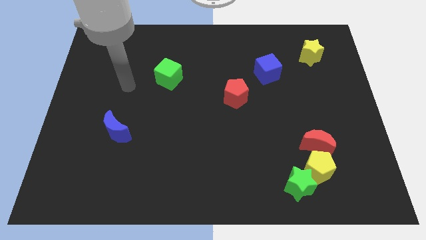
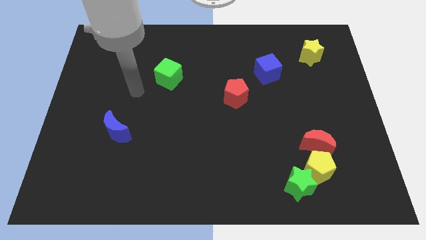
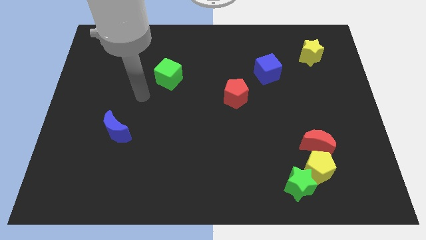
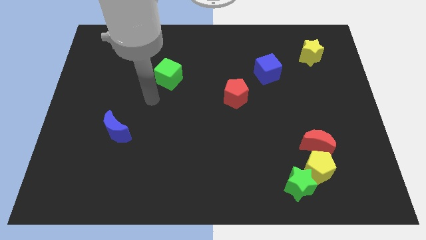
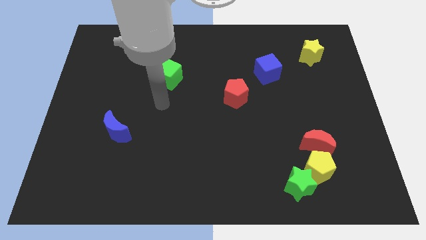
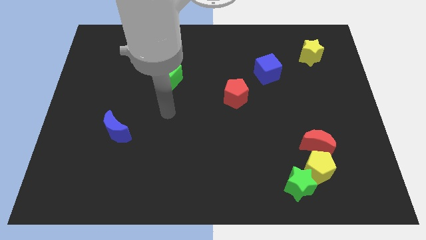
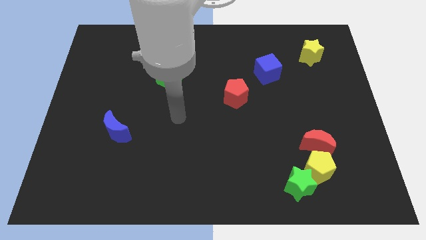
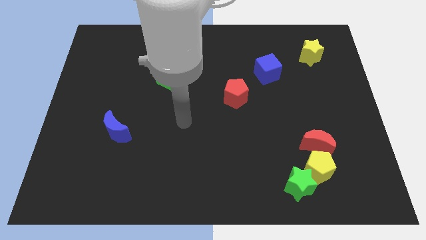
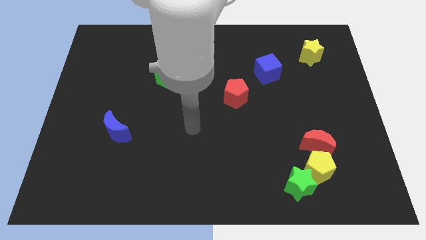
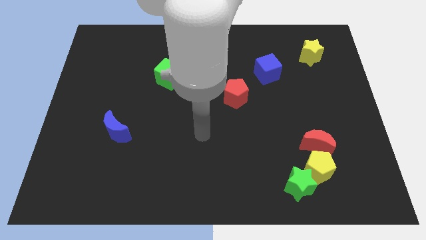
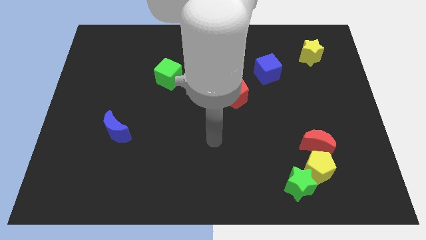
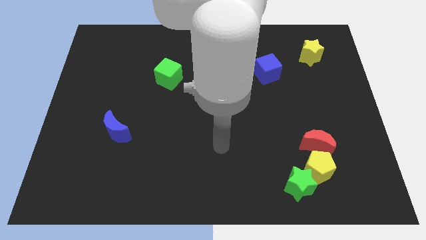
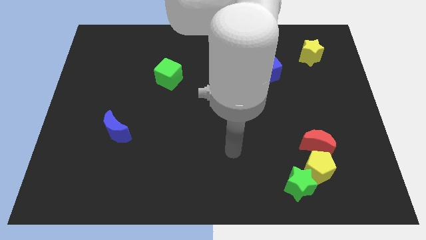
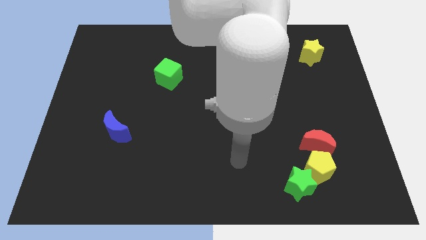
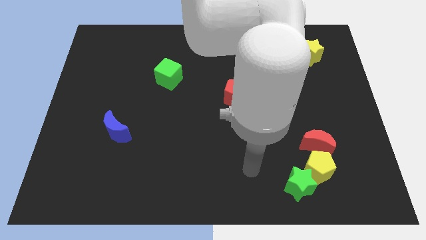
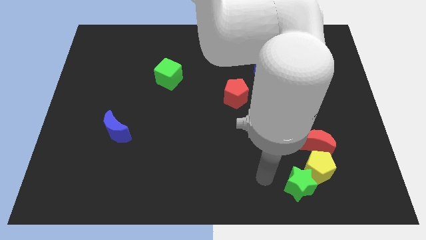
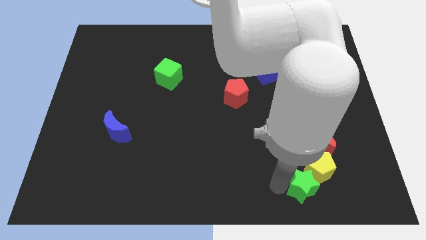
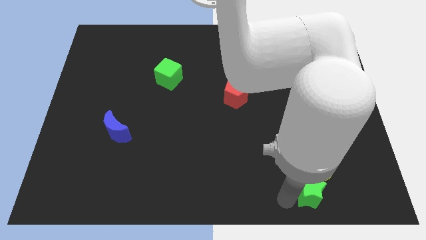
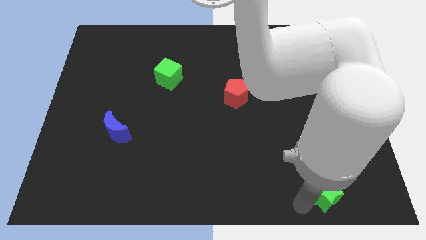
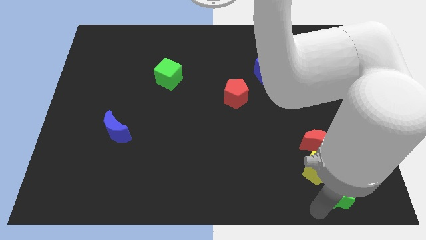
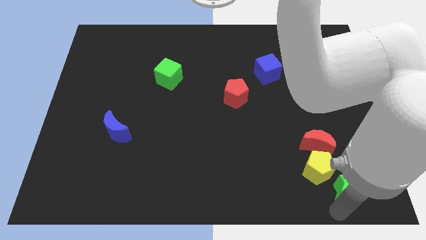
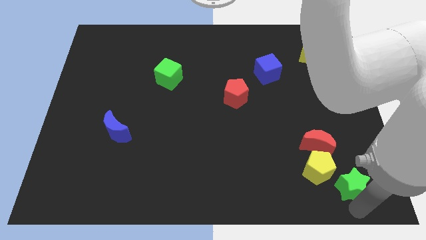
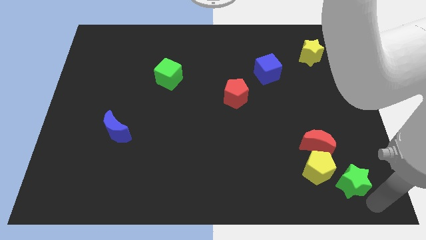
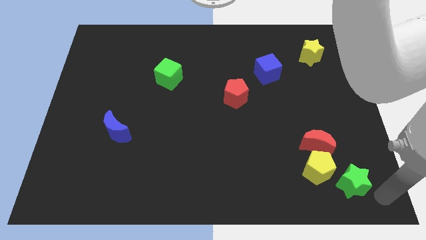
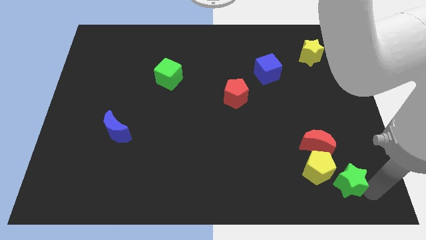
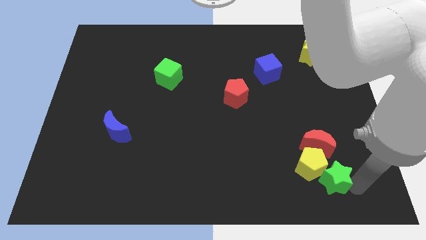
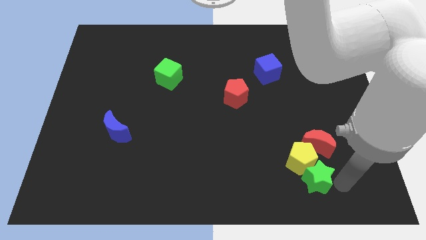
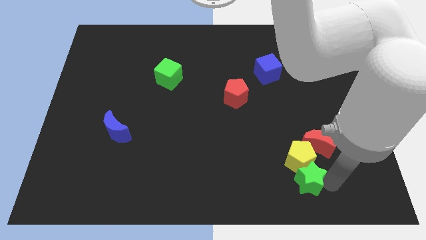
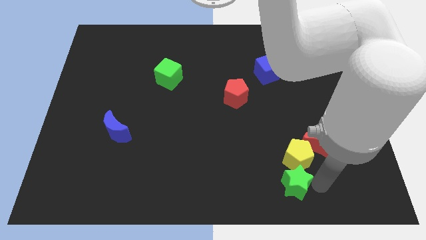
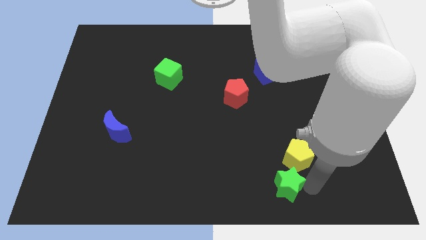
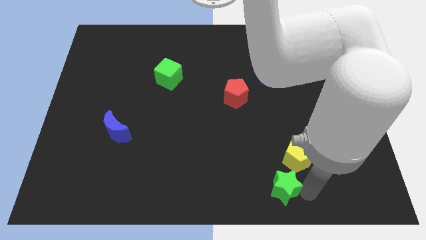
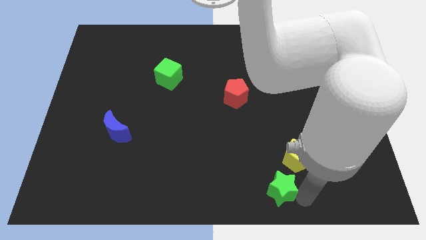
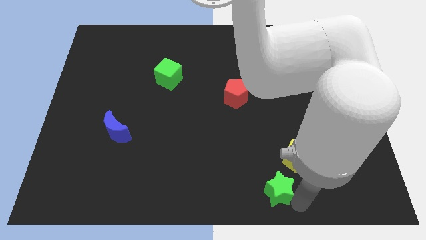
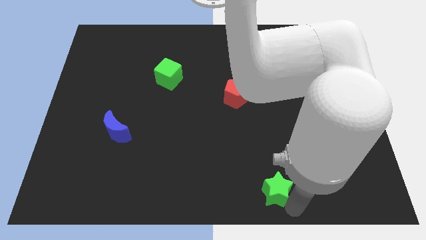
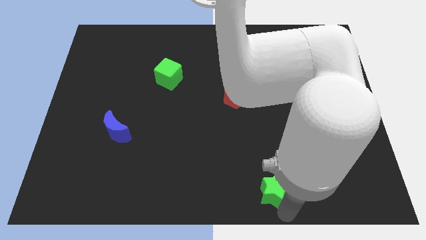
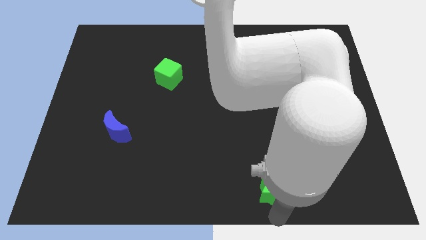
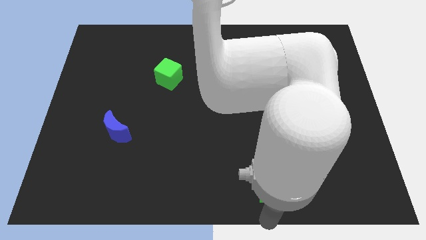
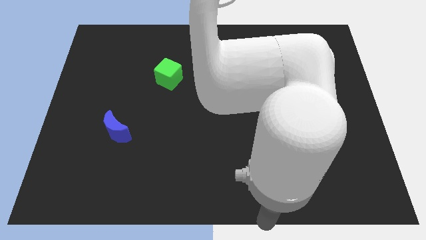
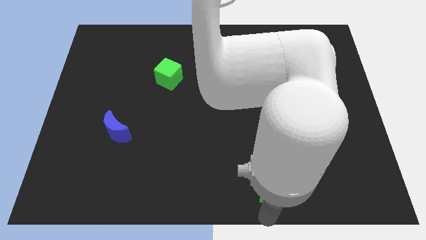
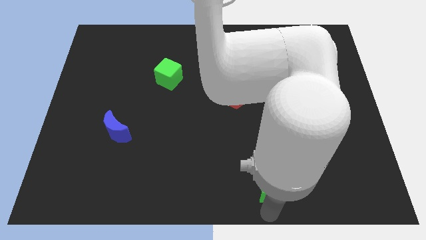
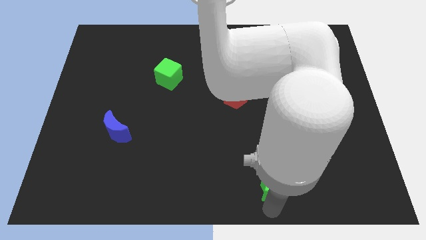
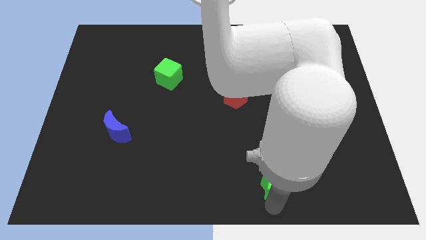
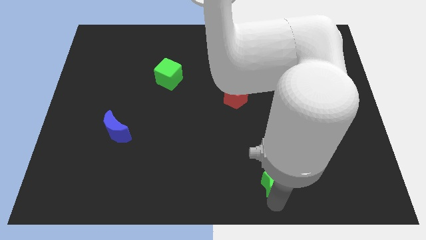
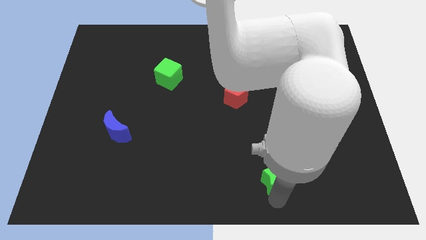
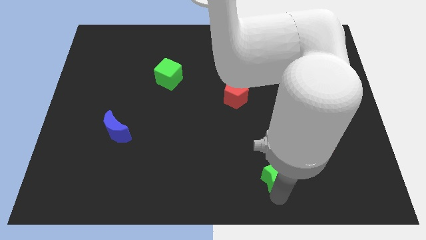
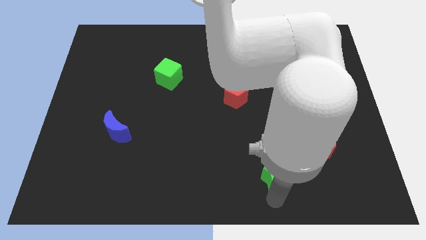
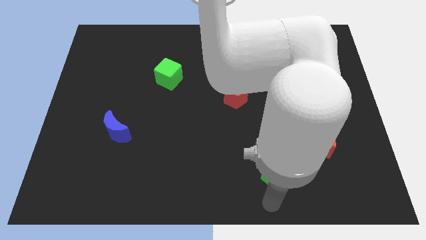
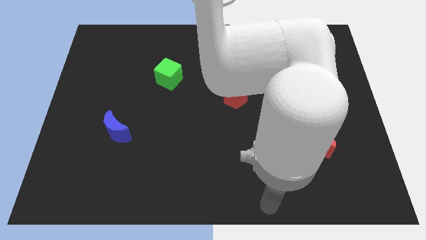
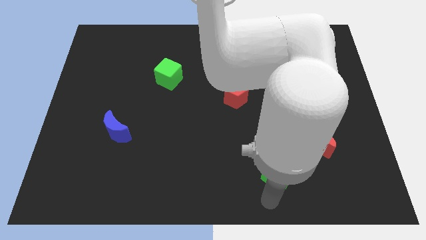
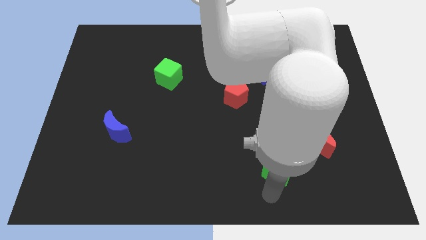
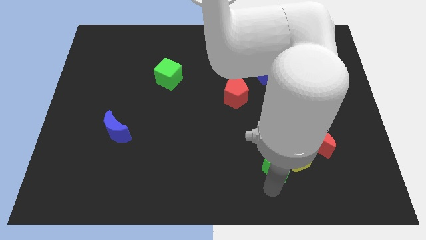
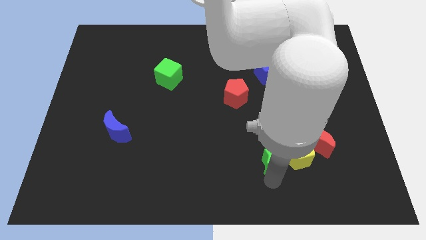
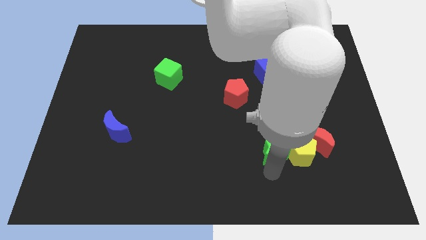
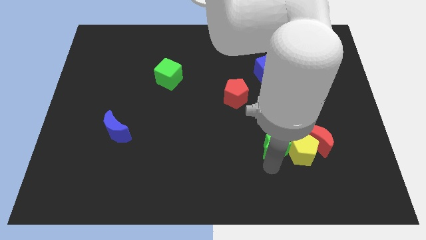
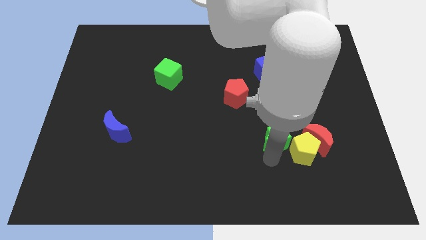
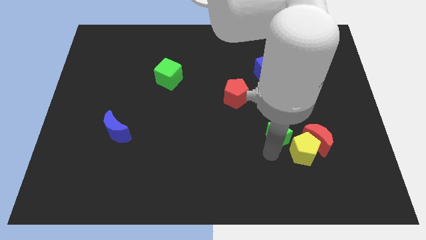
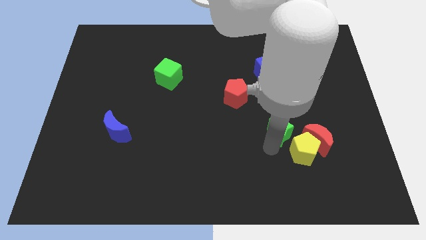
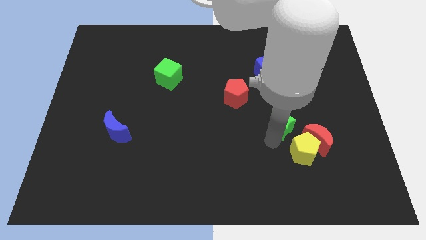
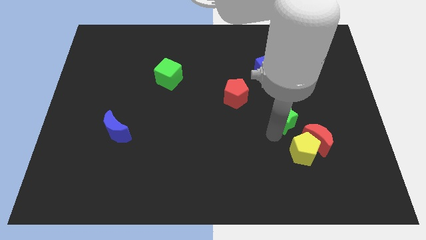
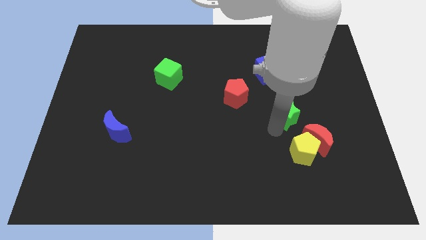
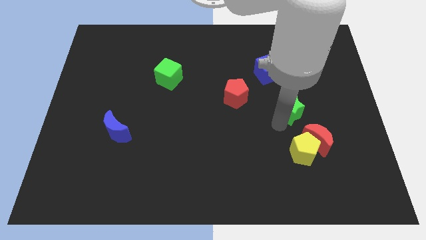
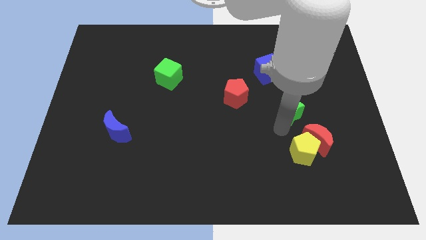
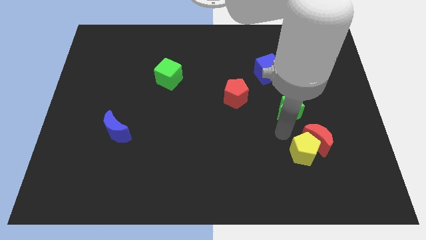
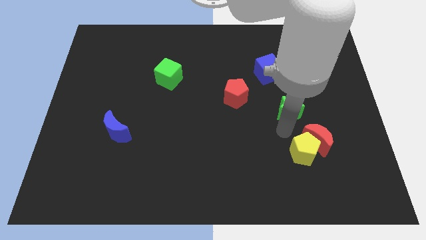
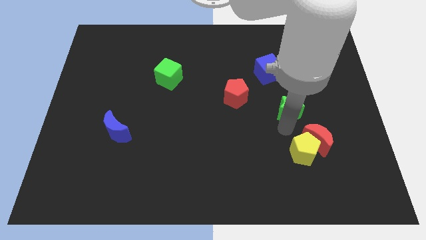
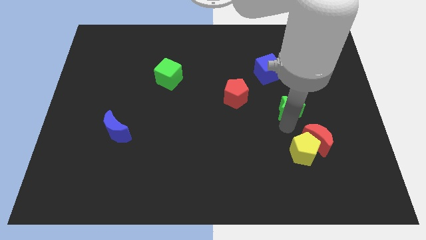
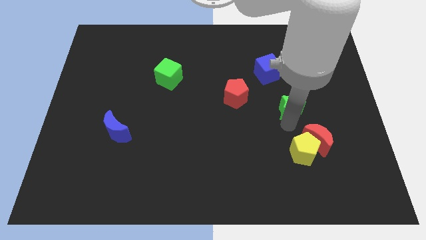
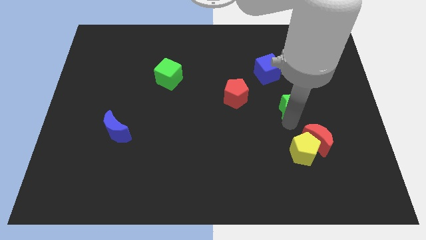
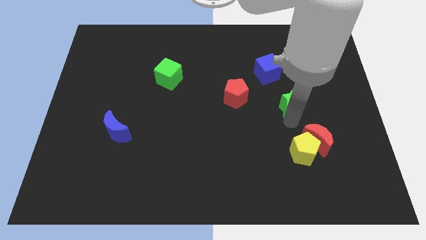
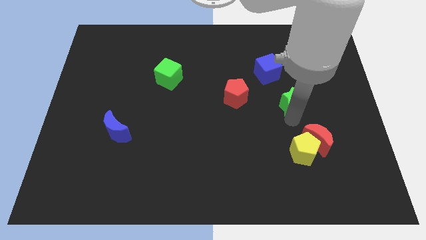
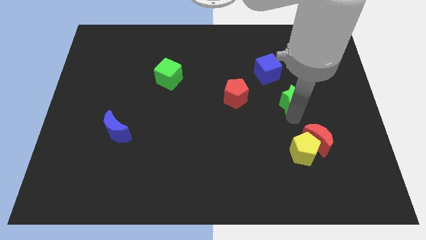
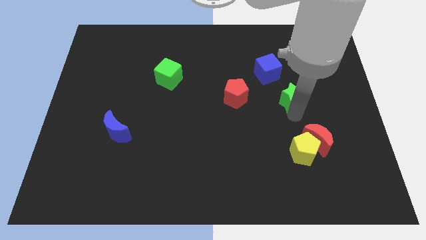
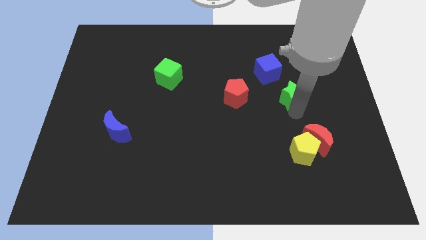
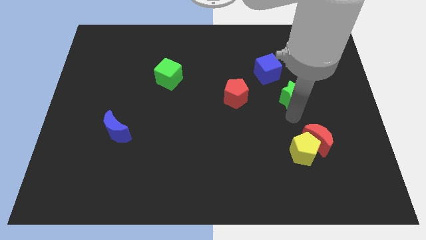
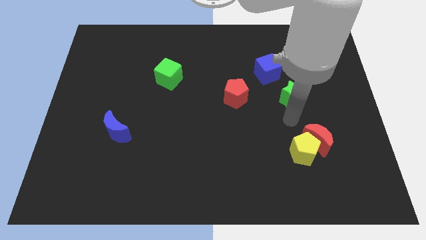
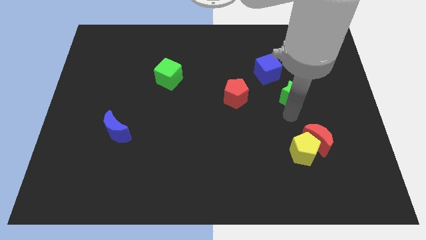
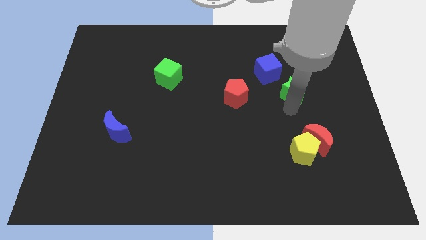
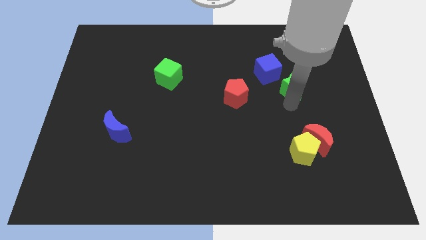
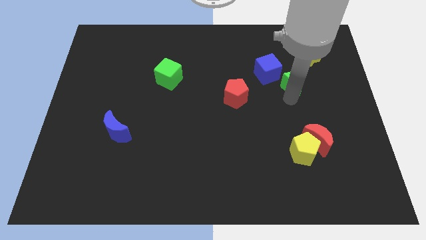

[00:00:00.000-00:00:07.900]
push the green star diagonally down and to the left of the yellow star
